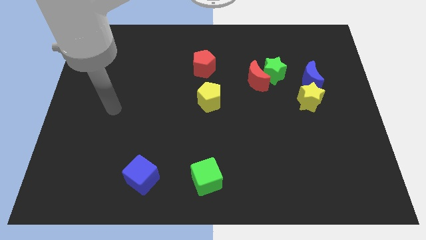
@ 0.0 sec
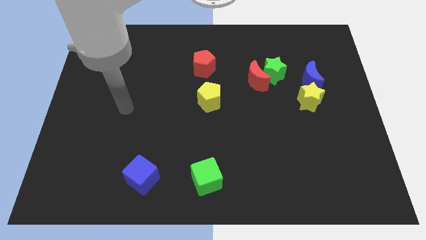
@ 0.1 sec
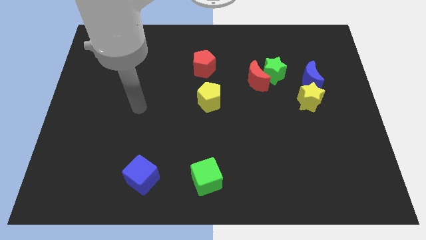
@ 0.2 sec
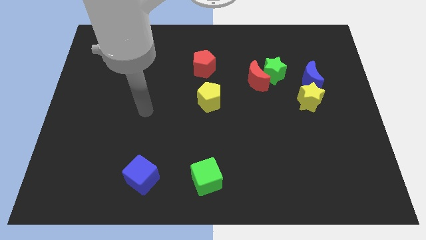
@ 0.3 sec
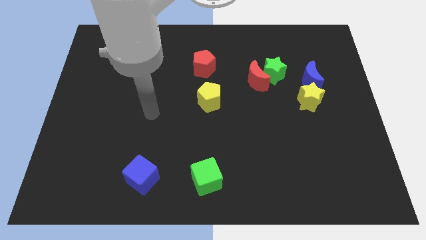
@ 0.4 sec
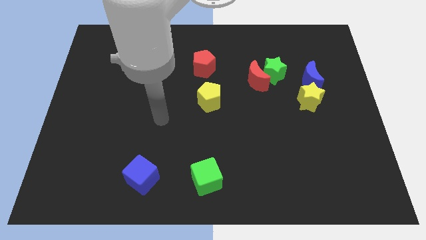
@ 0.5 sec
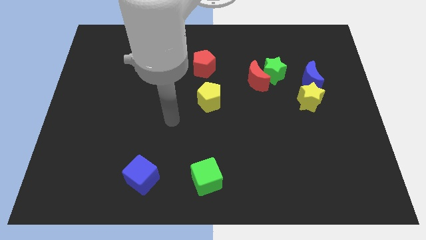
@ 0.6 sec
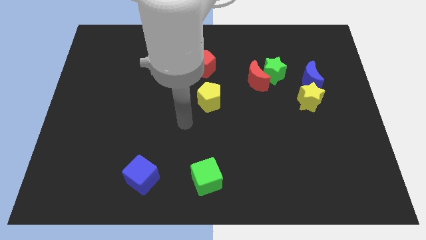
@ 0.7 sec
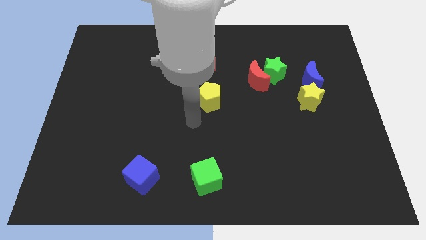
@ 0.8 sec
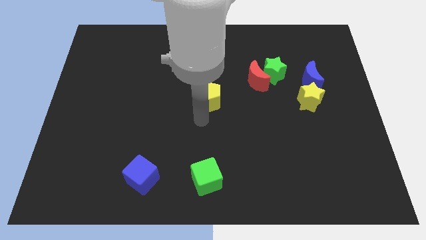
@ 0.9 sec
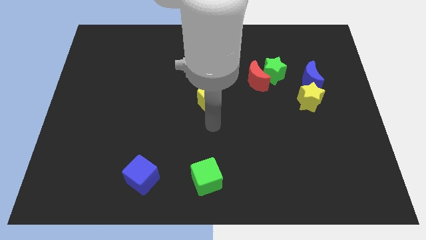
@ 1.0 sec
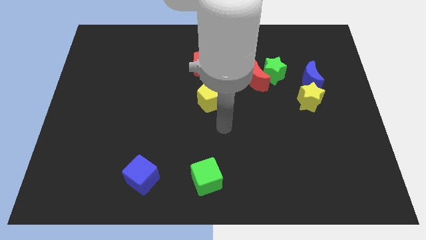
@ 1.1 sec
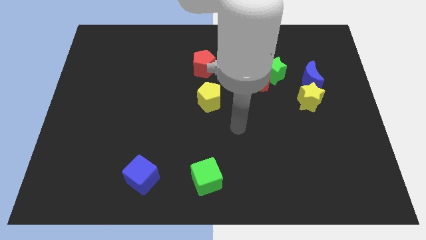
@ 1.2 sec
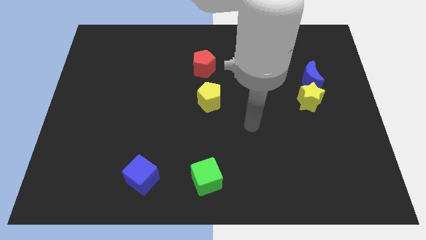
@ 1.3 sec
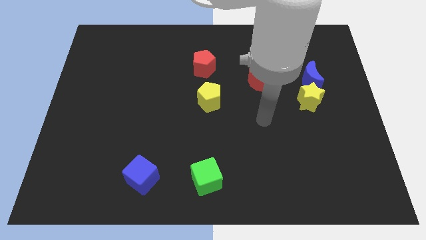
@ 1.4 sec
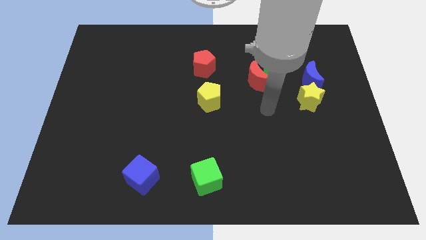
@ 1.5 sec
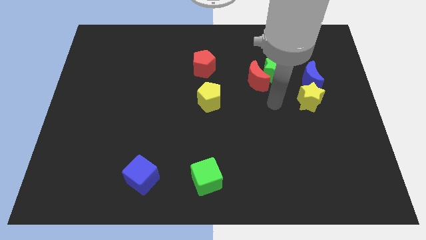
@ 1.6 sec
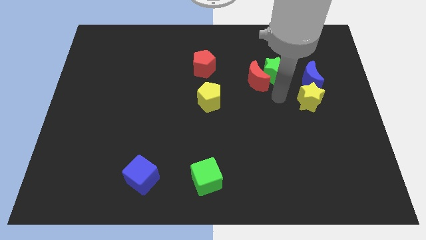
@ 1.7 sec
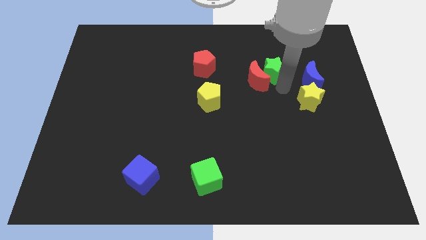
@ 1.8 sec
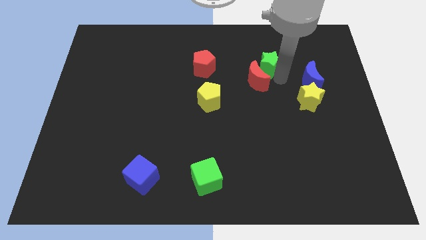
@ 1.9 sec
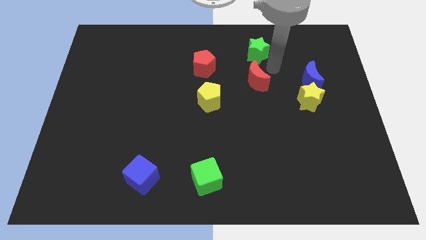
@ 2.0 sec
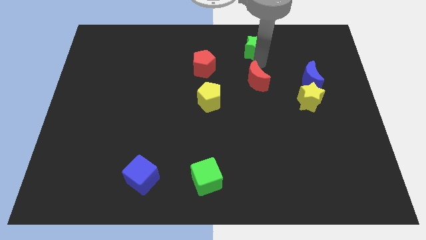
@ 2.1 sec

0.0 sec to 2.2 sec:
pull the red moon apart from the green star

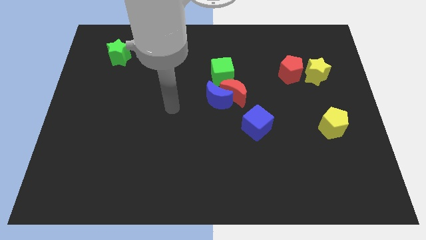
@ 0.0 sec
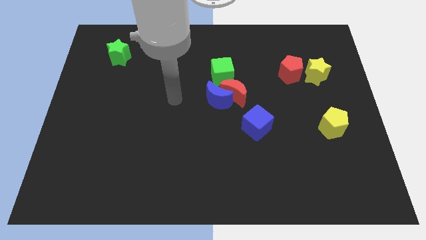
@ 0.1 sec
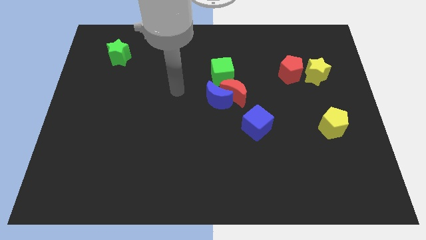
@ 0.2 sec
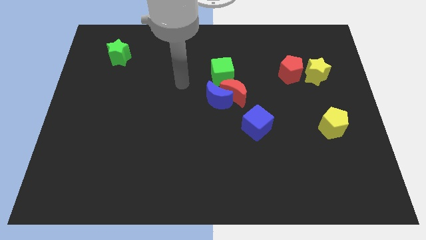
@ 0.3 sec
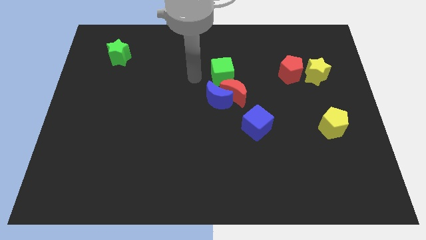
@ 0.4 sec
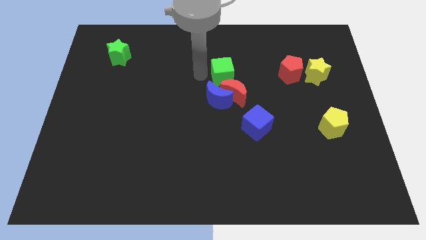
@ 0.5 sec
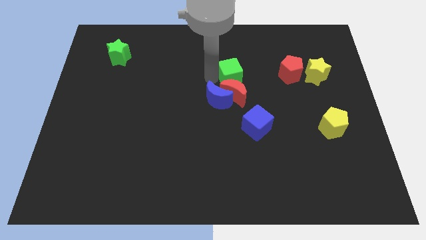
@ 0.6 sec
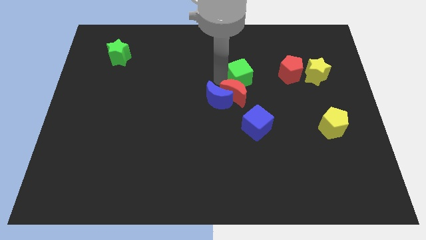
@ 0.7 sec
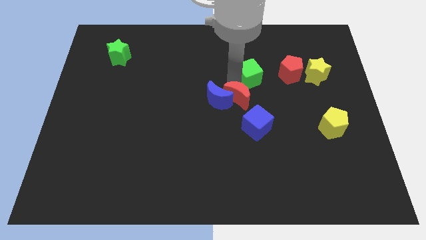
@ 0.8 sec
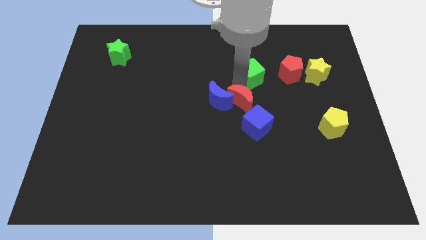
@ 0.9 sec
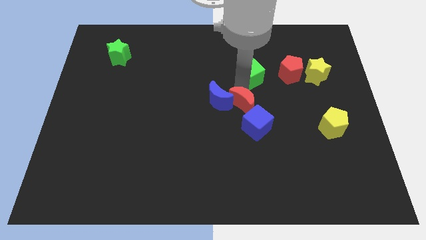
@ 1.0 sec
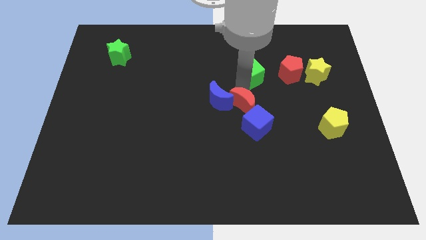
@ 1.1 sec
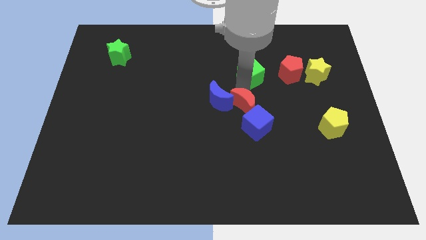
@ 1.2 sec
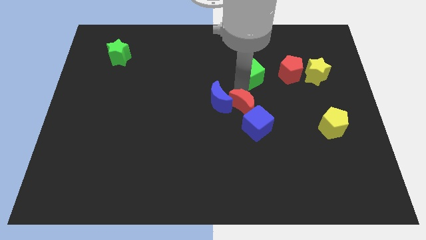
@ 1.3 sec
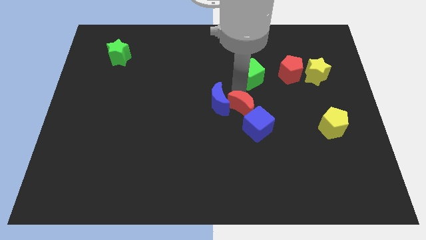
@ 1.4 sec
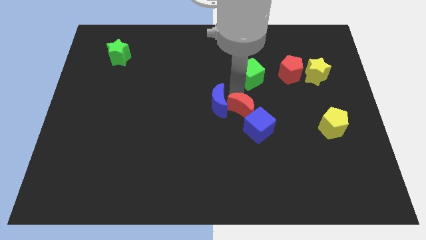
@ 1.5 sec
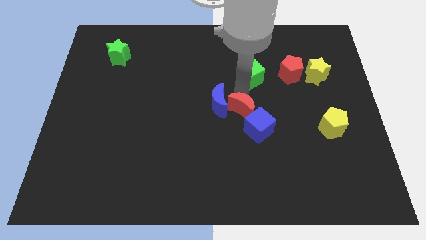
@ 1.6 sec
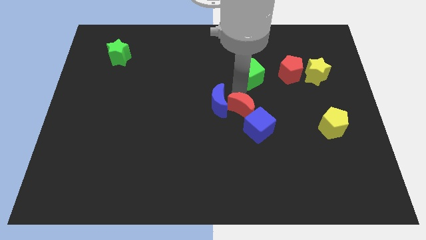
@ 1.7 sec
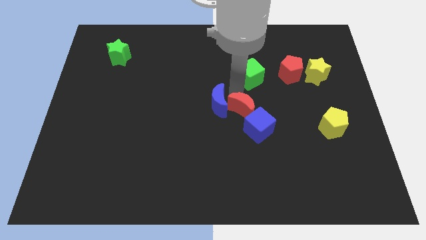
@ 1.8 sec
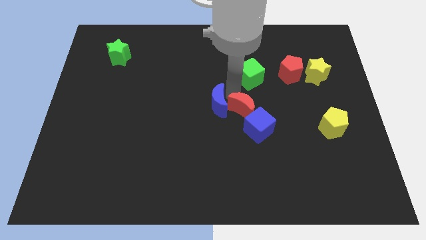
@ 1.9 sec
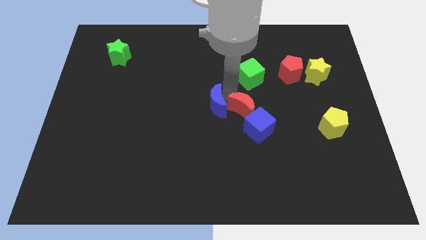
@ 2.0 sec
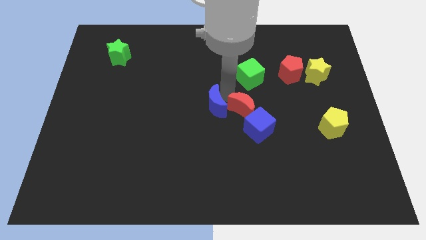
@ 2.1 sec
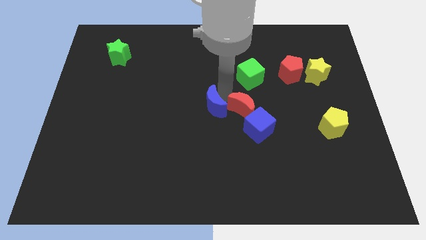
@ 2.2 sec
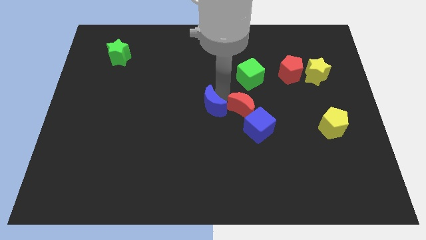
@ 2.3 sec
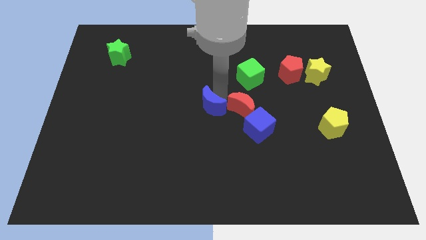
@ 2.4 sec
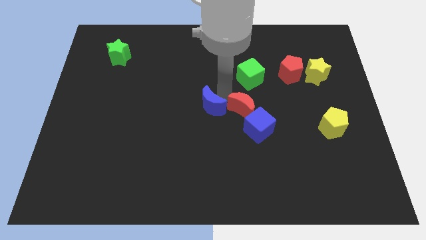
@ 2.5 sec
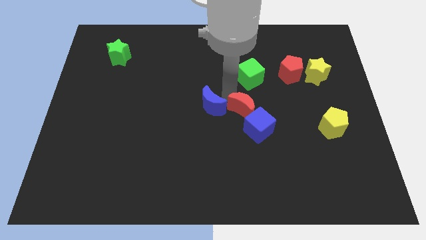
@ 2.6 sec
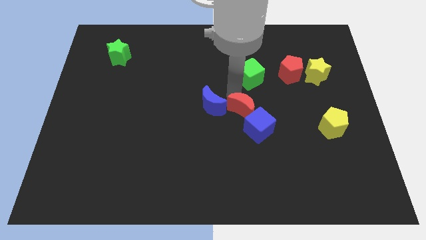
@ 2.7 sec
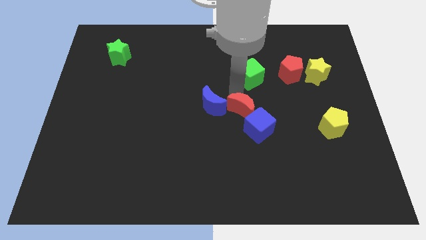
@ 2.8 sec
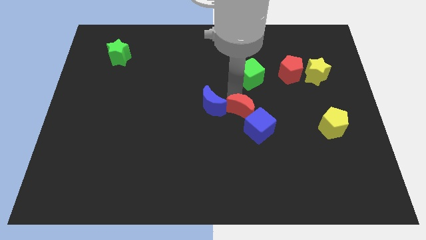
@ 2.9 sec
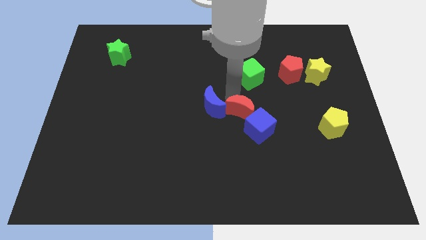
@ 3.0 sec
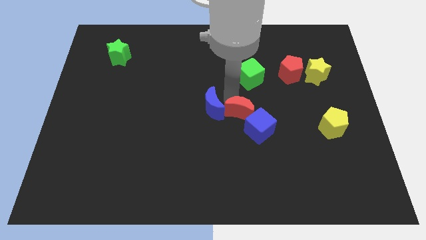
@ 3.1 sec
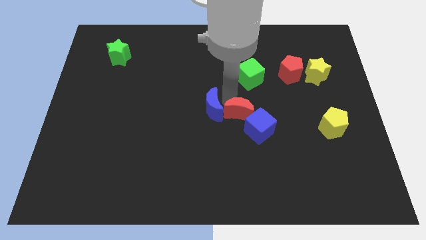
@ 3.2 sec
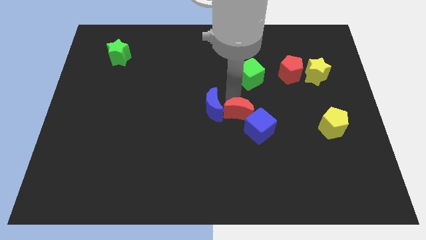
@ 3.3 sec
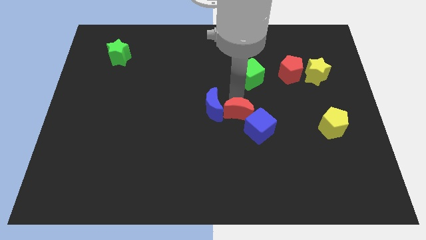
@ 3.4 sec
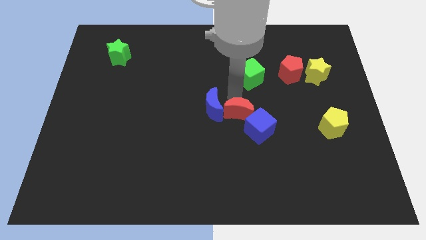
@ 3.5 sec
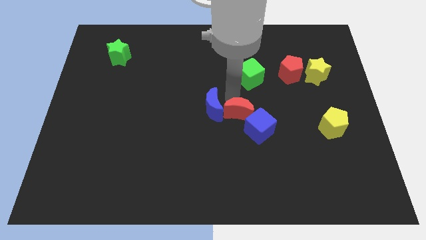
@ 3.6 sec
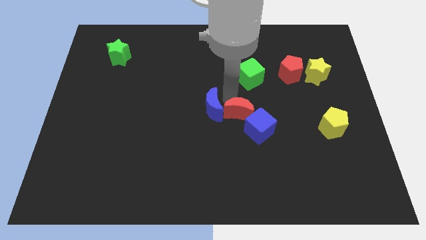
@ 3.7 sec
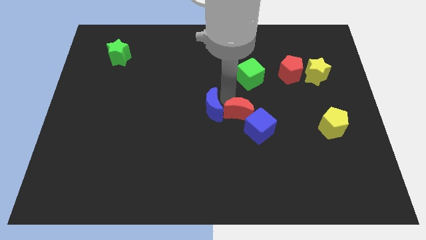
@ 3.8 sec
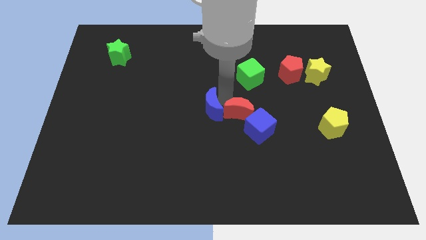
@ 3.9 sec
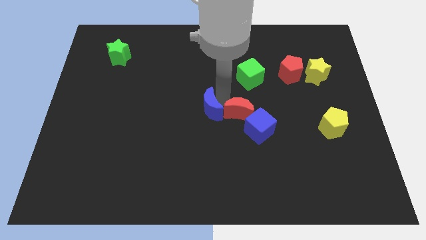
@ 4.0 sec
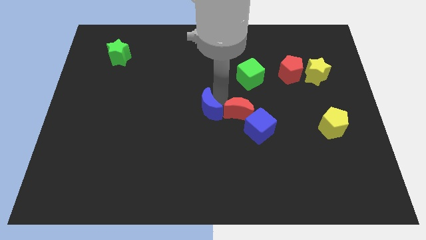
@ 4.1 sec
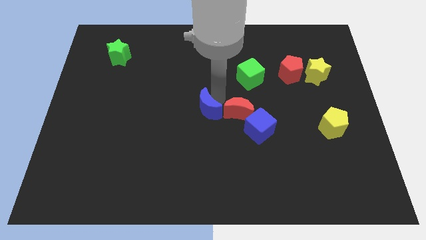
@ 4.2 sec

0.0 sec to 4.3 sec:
pull the blue moon apart from the red moon and green cube

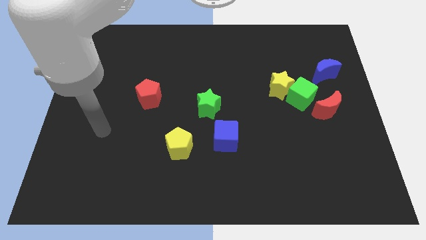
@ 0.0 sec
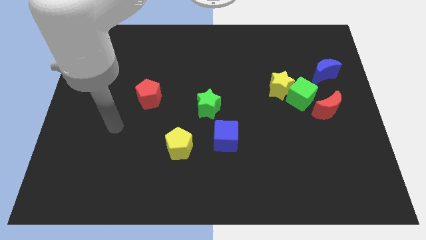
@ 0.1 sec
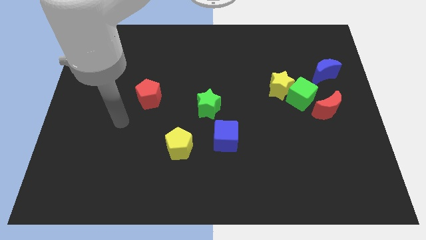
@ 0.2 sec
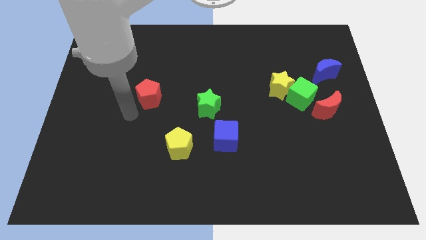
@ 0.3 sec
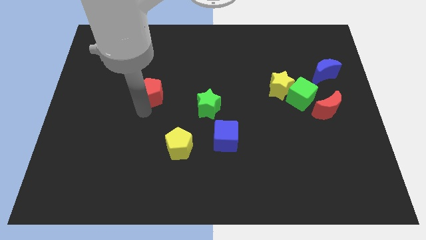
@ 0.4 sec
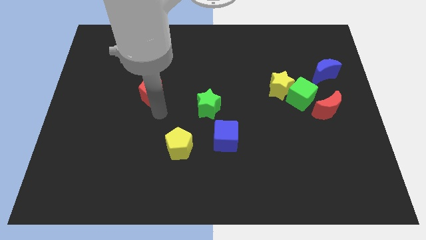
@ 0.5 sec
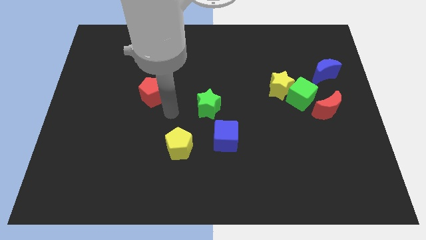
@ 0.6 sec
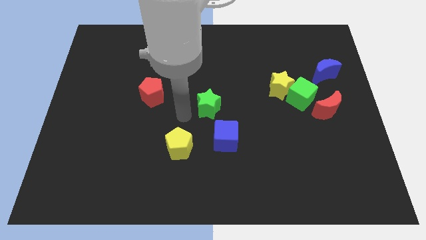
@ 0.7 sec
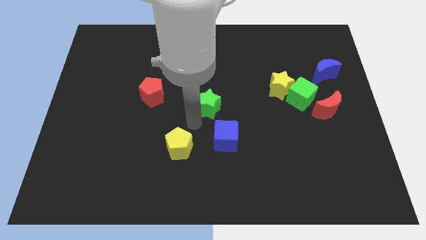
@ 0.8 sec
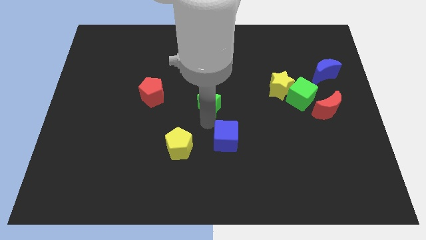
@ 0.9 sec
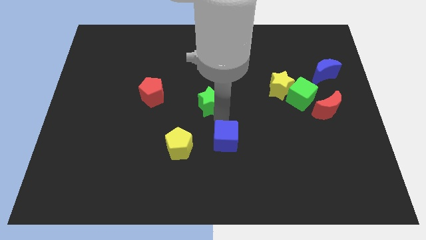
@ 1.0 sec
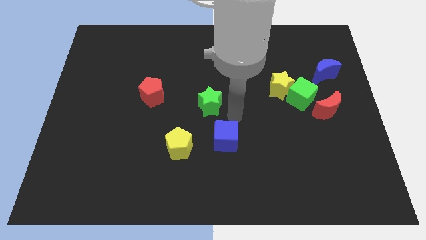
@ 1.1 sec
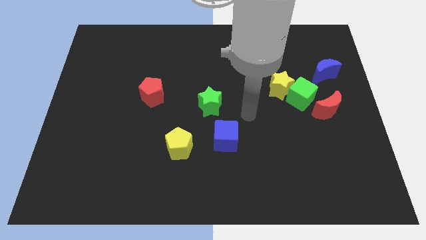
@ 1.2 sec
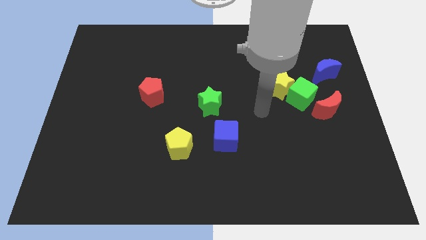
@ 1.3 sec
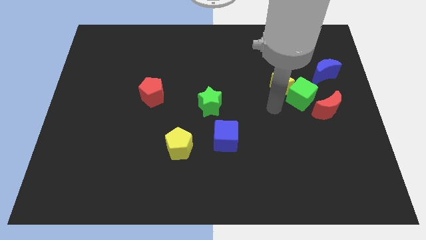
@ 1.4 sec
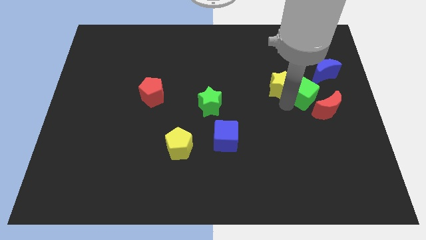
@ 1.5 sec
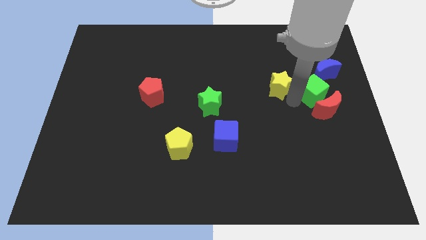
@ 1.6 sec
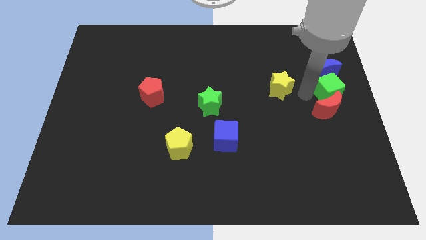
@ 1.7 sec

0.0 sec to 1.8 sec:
pull the yellow star apart from the green cube

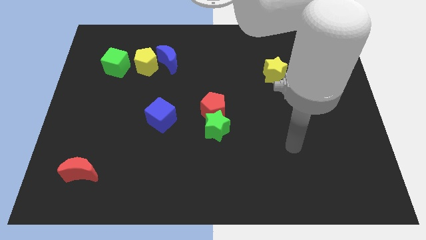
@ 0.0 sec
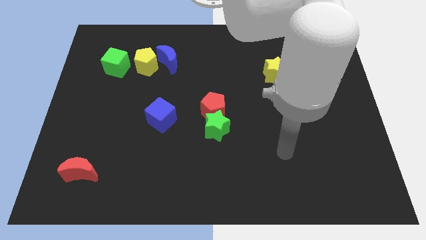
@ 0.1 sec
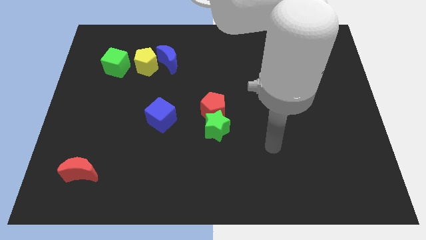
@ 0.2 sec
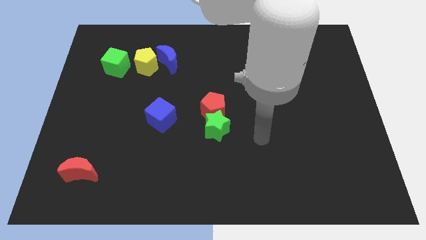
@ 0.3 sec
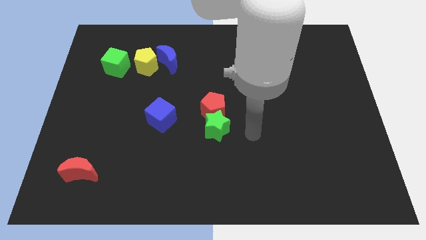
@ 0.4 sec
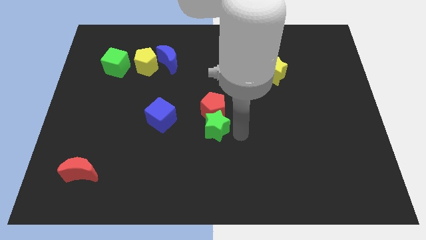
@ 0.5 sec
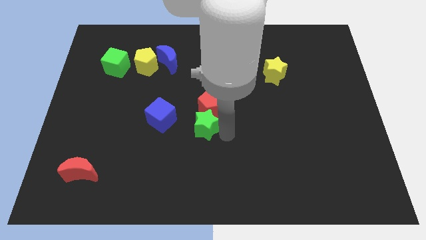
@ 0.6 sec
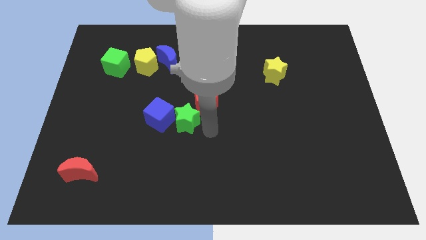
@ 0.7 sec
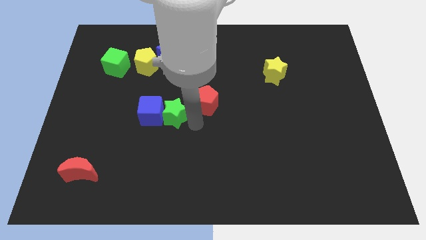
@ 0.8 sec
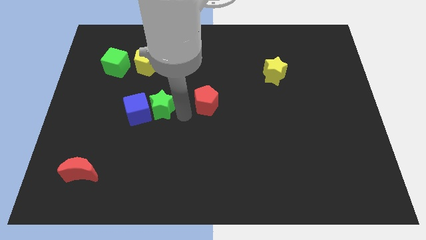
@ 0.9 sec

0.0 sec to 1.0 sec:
separate the red pentagon from the green star

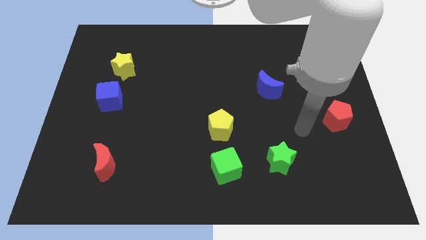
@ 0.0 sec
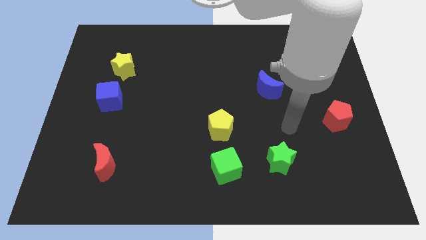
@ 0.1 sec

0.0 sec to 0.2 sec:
separate the green cube from the yellow pentagon
